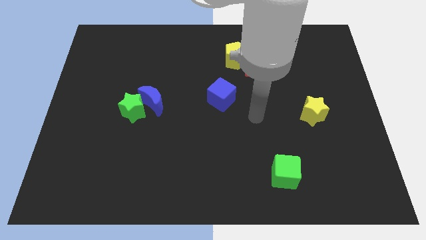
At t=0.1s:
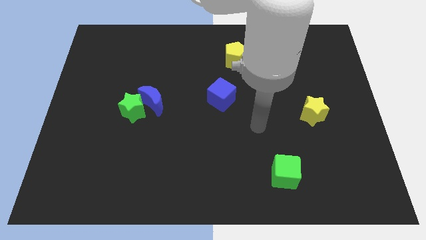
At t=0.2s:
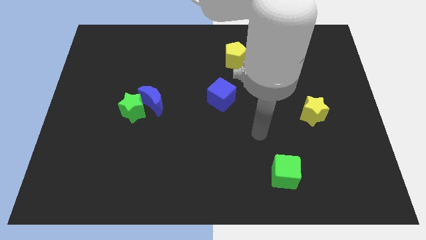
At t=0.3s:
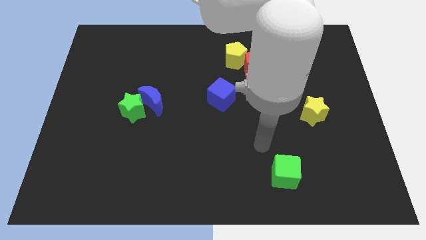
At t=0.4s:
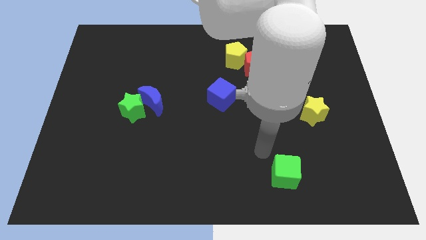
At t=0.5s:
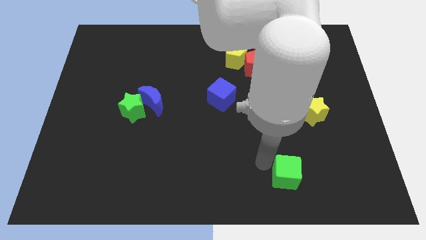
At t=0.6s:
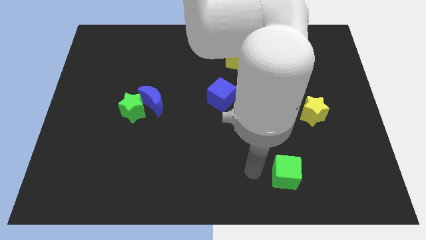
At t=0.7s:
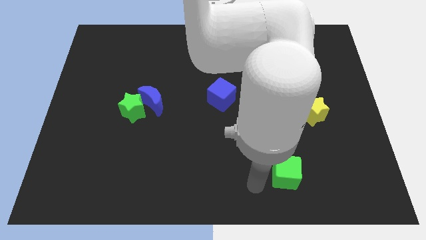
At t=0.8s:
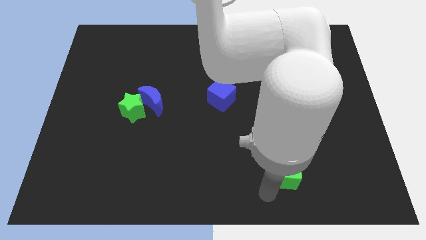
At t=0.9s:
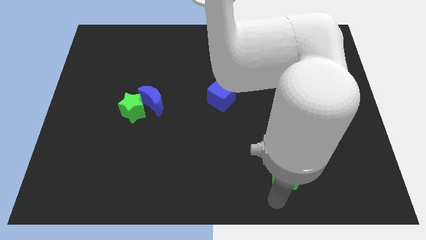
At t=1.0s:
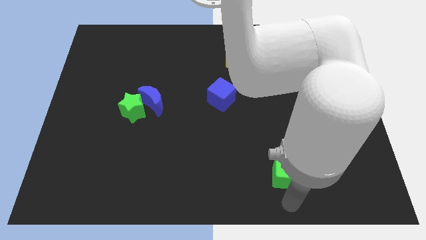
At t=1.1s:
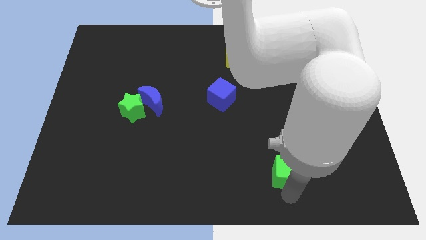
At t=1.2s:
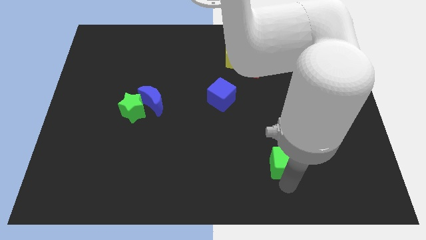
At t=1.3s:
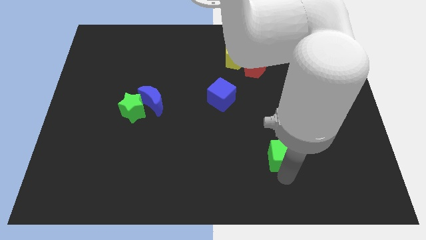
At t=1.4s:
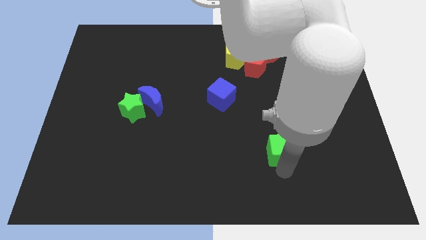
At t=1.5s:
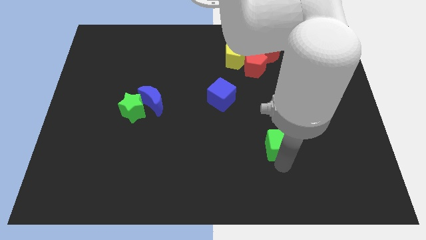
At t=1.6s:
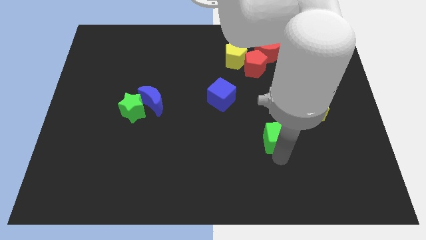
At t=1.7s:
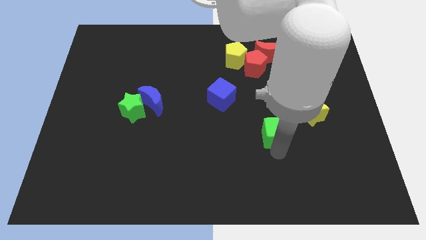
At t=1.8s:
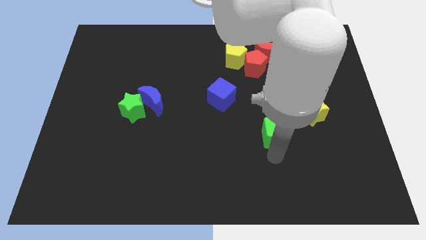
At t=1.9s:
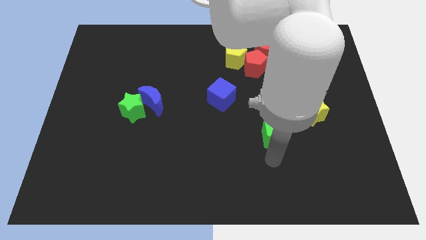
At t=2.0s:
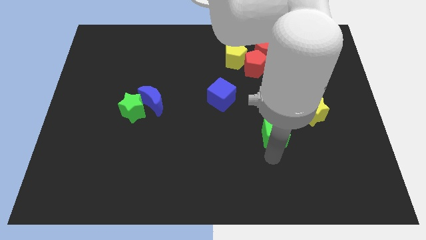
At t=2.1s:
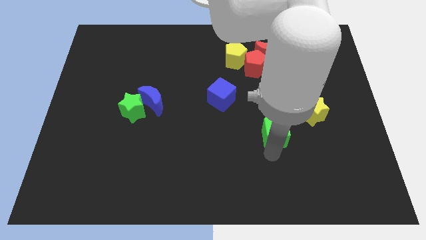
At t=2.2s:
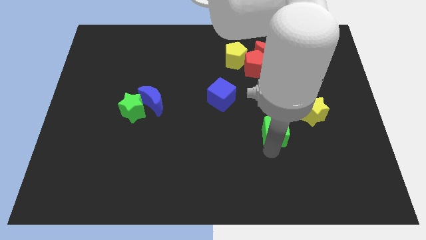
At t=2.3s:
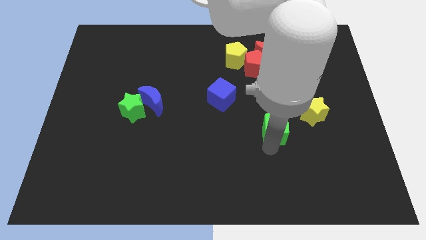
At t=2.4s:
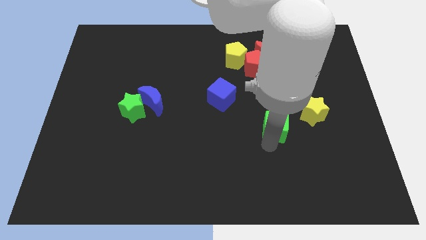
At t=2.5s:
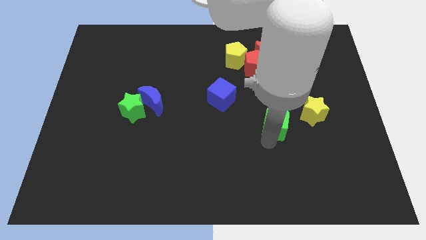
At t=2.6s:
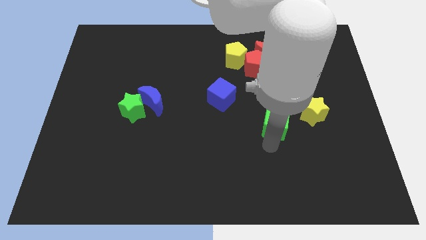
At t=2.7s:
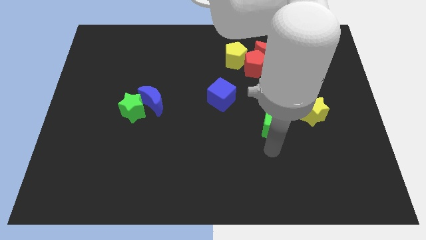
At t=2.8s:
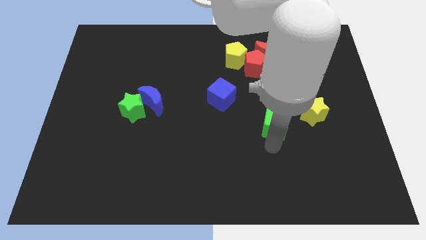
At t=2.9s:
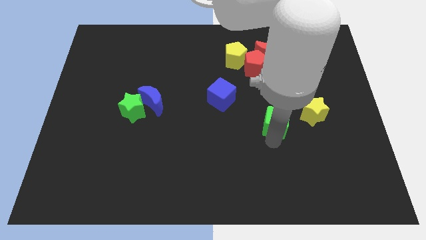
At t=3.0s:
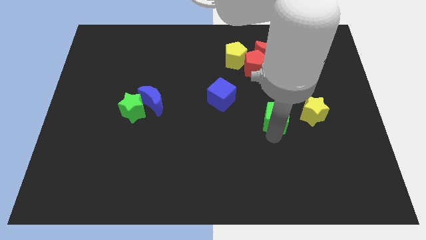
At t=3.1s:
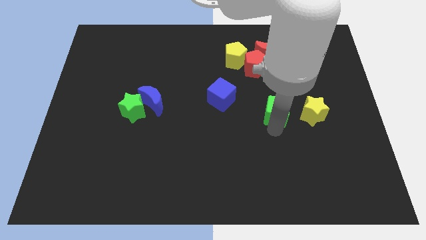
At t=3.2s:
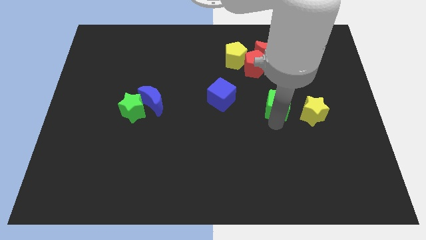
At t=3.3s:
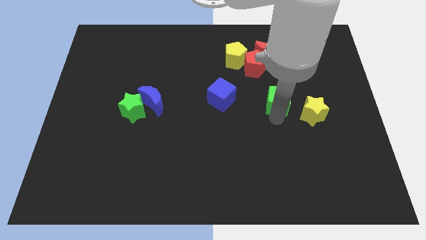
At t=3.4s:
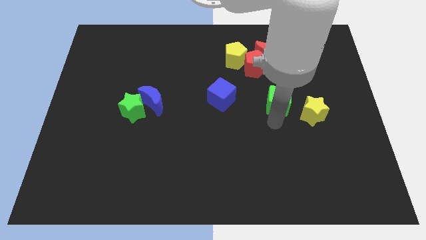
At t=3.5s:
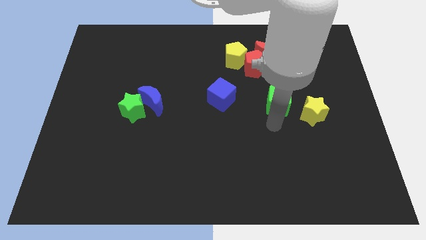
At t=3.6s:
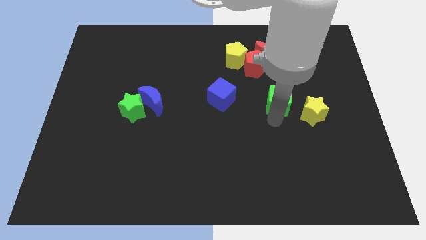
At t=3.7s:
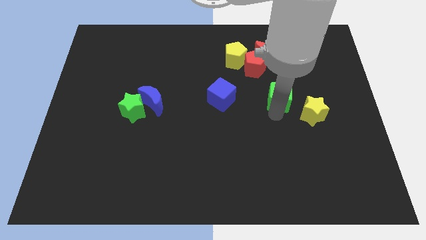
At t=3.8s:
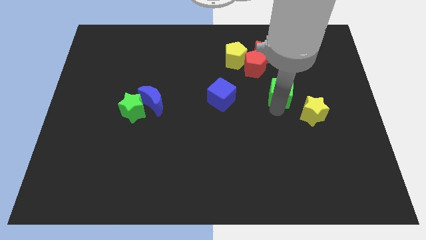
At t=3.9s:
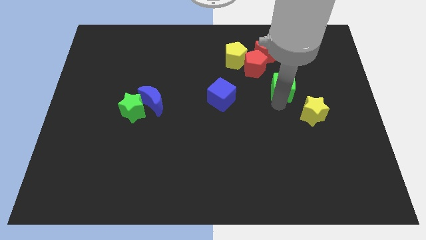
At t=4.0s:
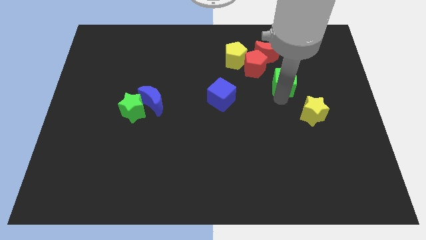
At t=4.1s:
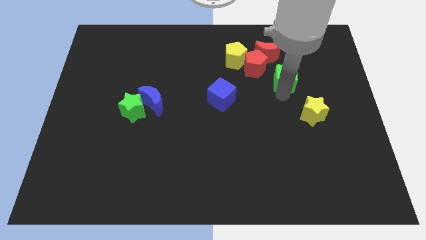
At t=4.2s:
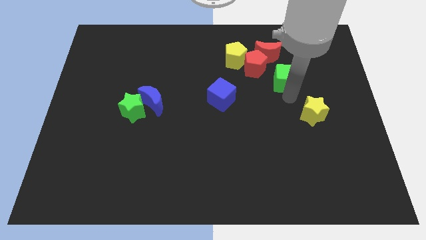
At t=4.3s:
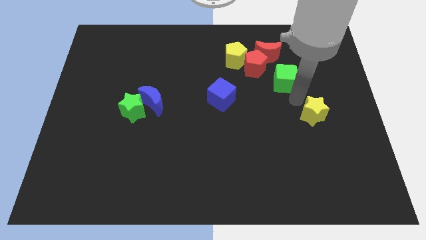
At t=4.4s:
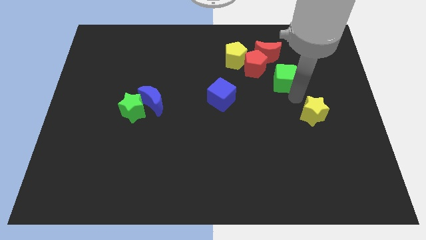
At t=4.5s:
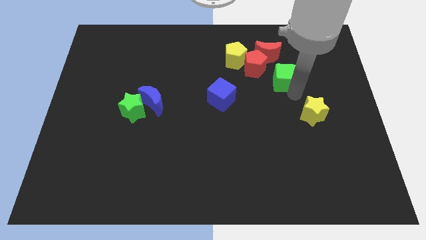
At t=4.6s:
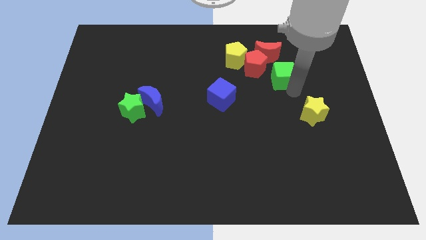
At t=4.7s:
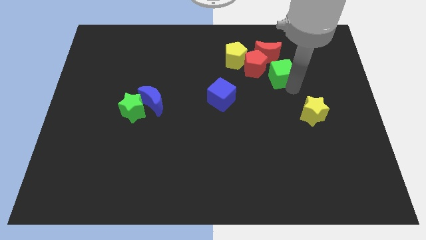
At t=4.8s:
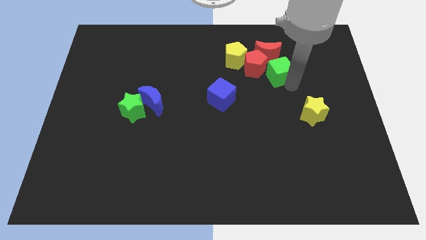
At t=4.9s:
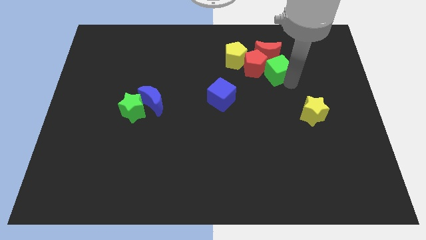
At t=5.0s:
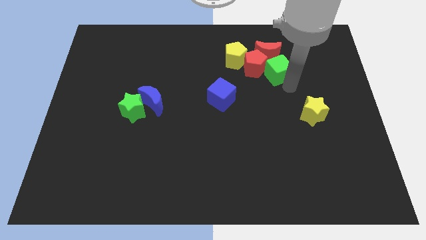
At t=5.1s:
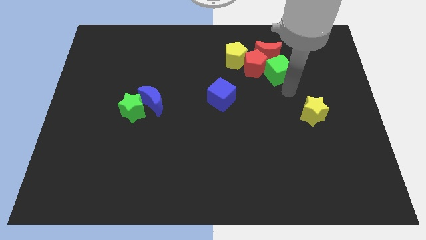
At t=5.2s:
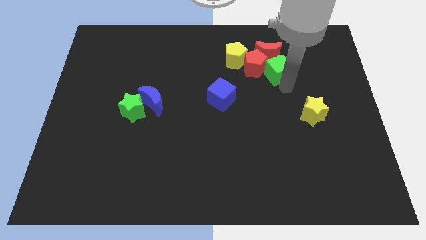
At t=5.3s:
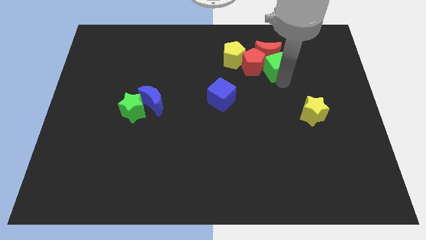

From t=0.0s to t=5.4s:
push the green cube towards the red moon
